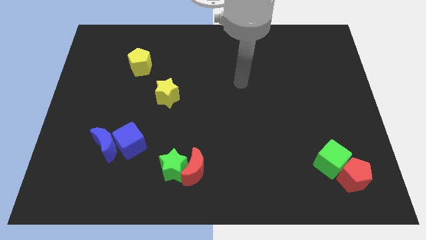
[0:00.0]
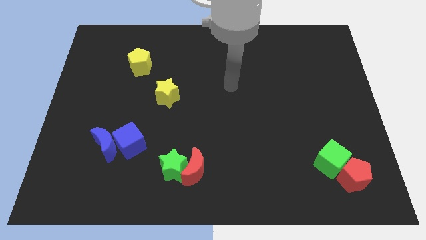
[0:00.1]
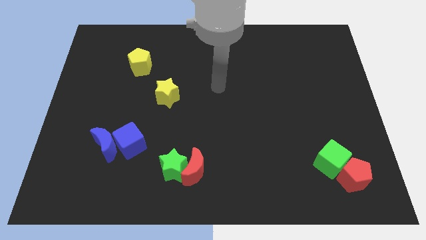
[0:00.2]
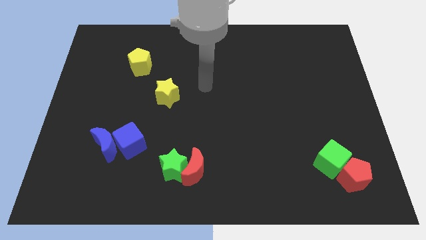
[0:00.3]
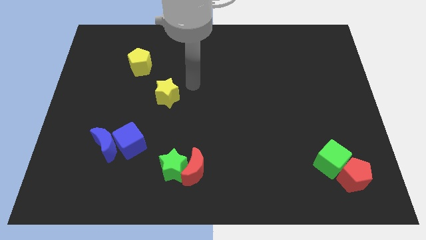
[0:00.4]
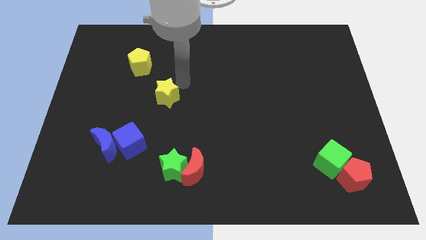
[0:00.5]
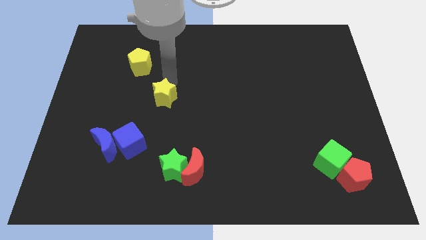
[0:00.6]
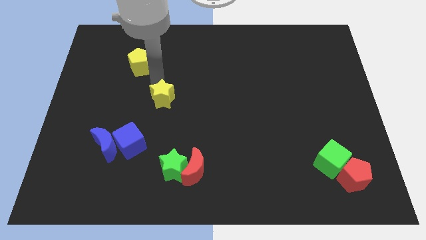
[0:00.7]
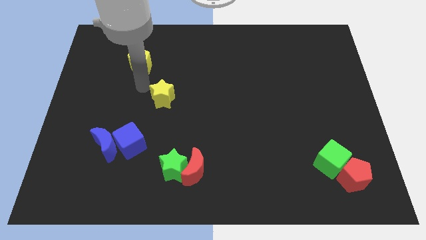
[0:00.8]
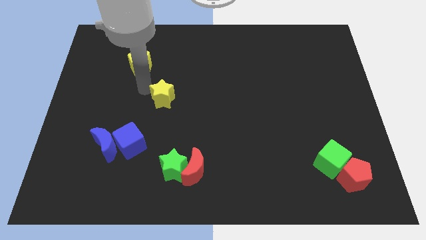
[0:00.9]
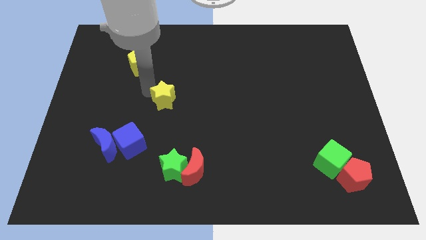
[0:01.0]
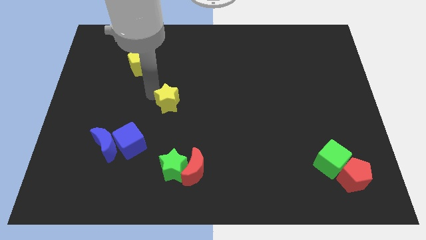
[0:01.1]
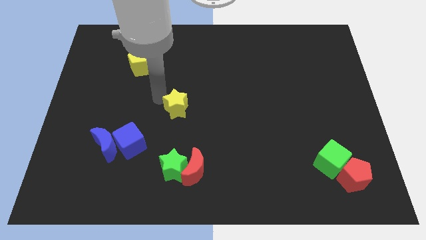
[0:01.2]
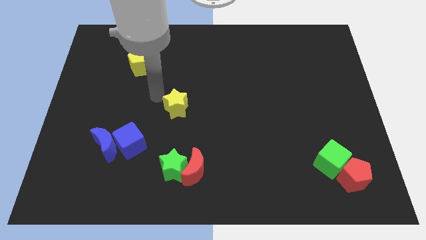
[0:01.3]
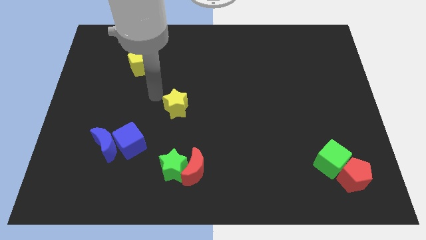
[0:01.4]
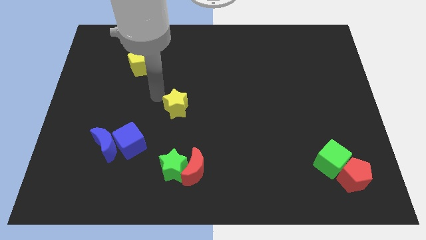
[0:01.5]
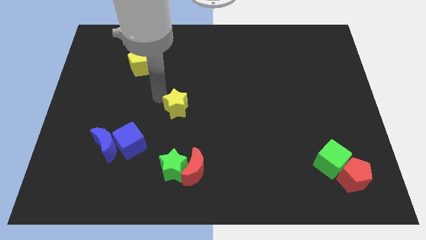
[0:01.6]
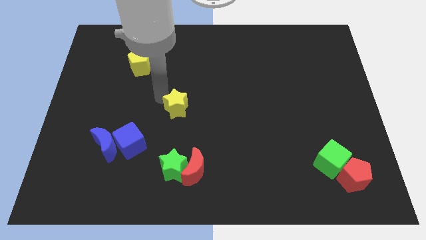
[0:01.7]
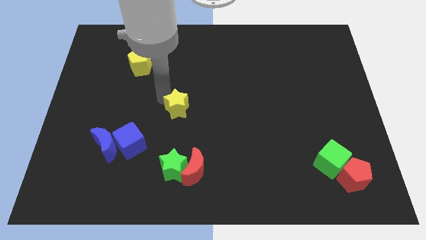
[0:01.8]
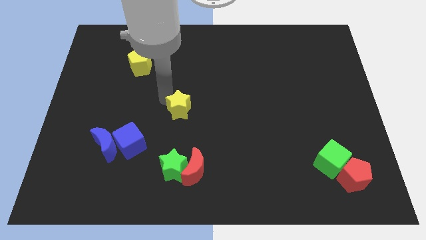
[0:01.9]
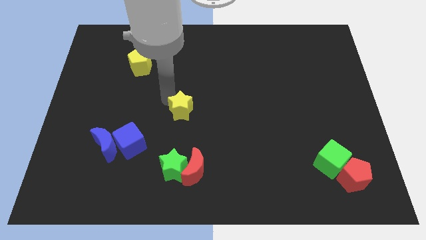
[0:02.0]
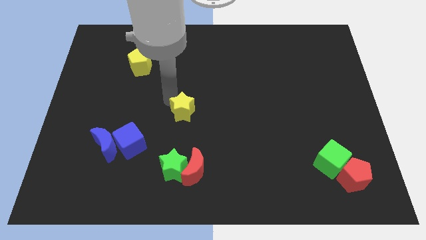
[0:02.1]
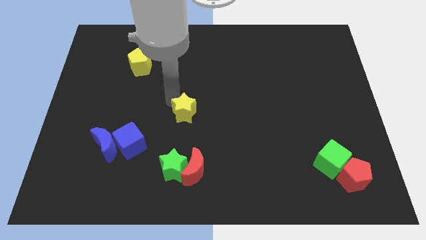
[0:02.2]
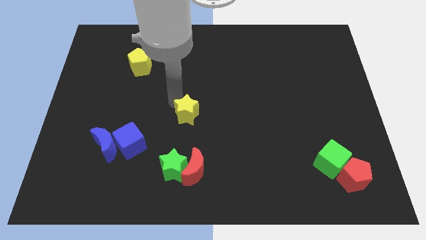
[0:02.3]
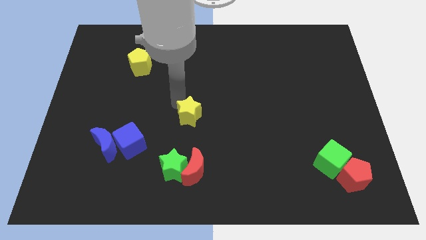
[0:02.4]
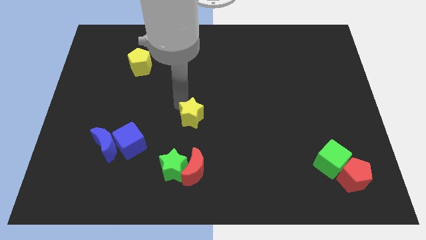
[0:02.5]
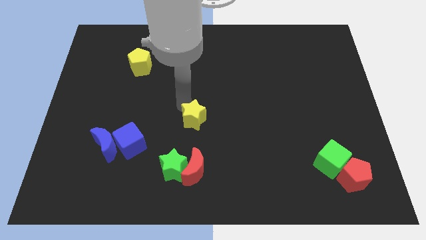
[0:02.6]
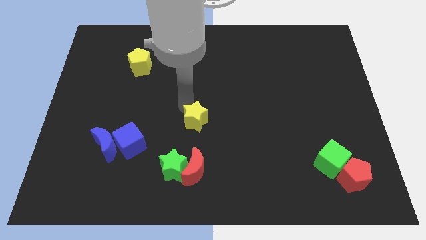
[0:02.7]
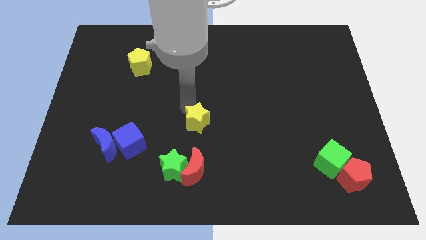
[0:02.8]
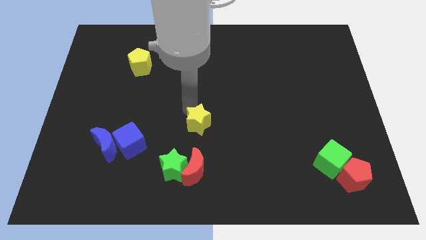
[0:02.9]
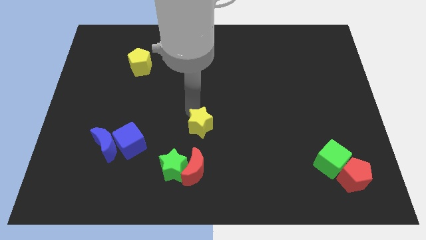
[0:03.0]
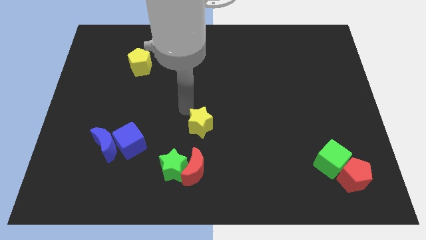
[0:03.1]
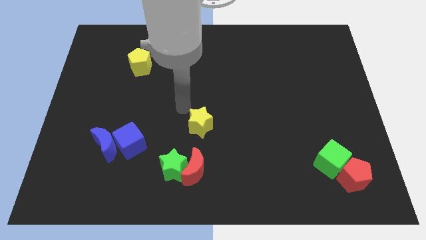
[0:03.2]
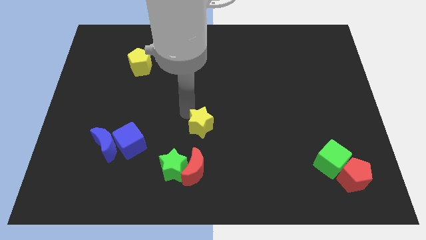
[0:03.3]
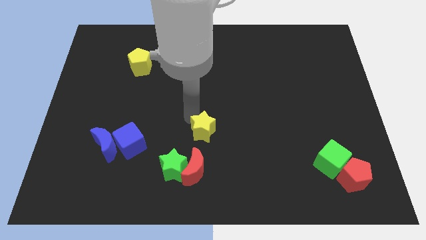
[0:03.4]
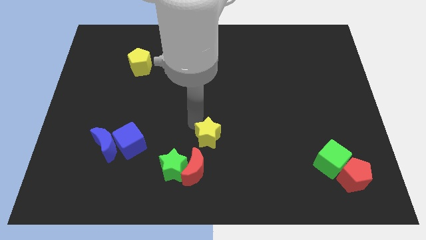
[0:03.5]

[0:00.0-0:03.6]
slide the yellow star to the top right of the red moon

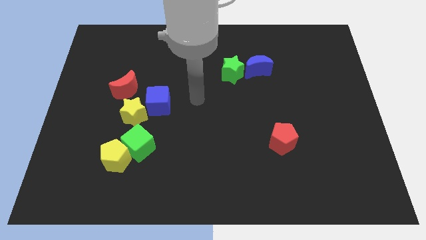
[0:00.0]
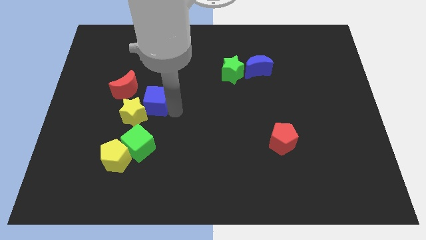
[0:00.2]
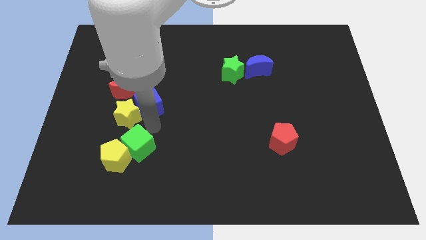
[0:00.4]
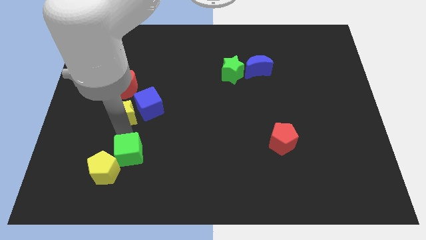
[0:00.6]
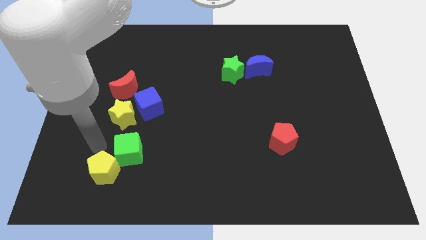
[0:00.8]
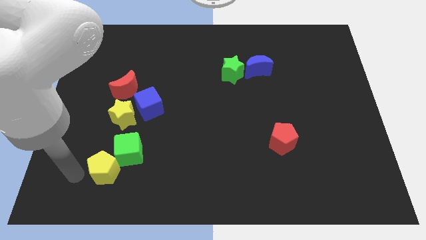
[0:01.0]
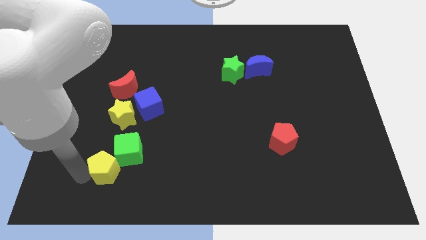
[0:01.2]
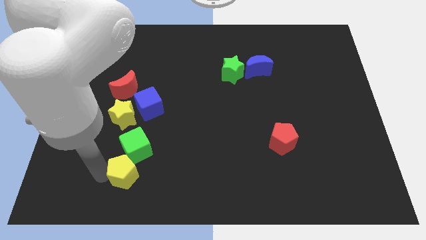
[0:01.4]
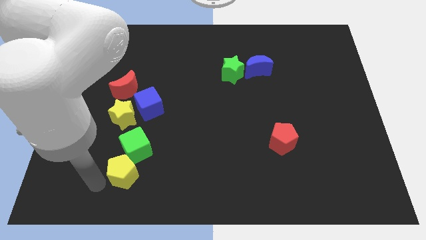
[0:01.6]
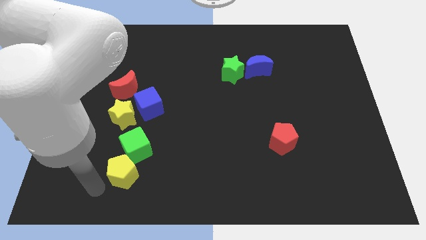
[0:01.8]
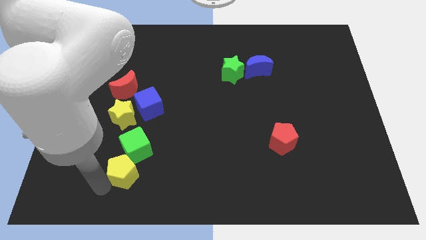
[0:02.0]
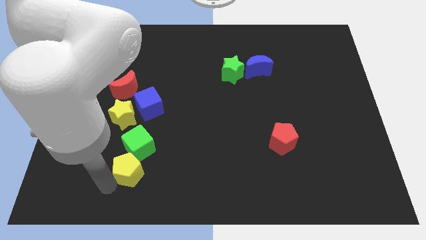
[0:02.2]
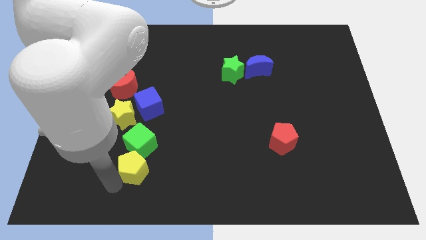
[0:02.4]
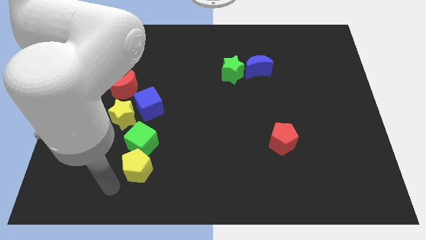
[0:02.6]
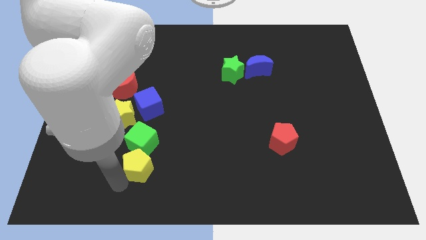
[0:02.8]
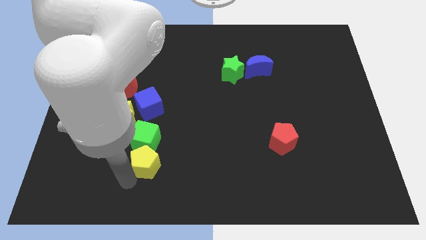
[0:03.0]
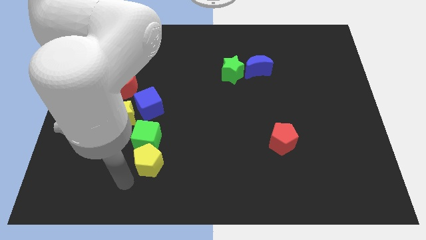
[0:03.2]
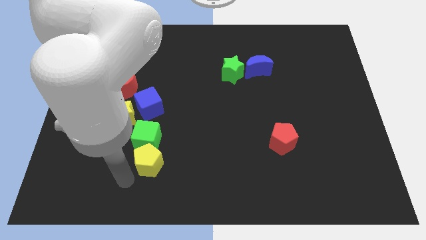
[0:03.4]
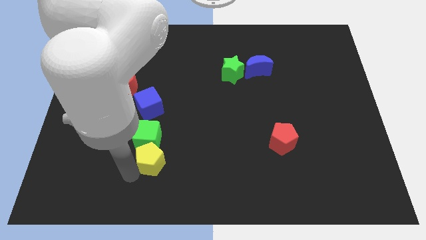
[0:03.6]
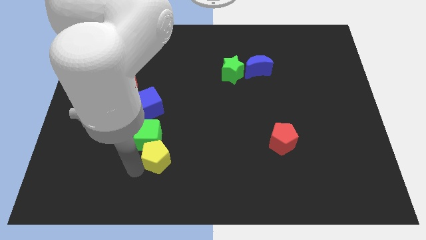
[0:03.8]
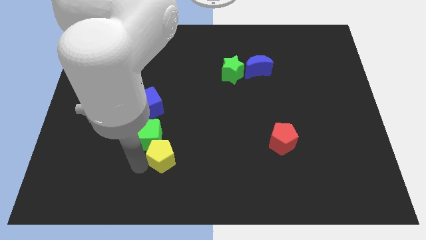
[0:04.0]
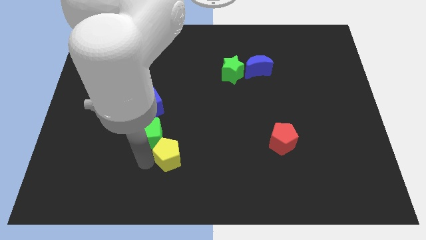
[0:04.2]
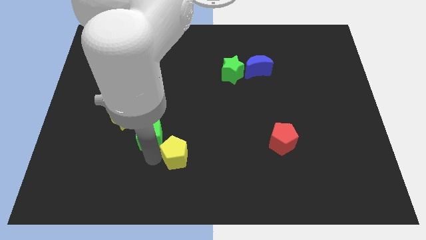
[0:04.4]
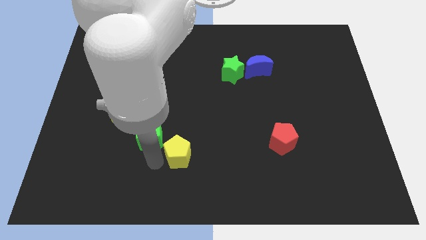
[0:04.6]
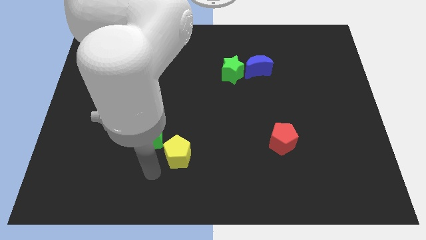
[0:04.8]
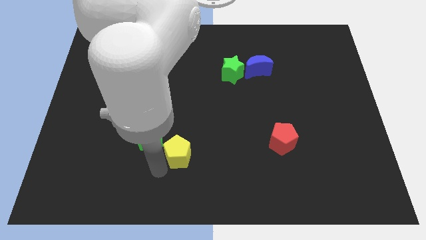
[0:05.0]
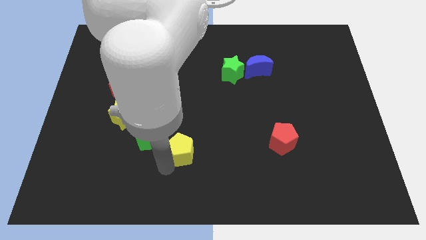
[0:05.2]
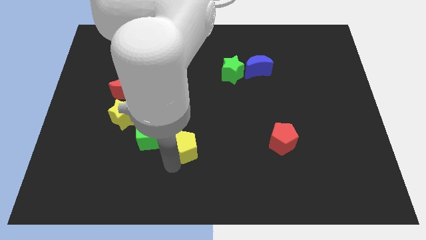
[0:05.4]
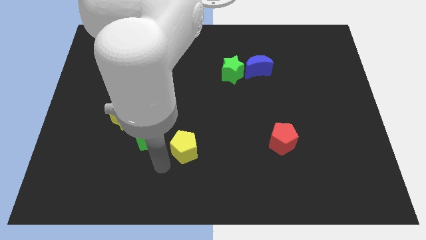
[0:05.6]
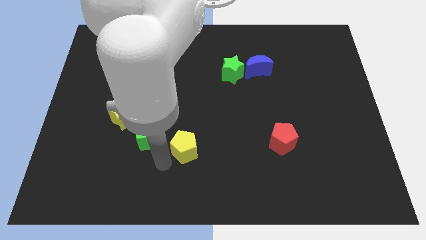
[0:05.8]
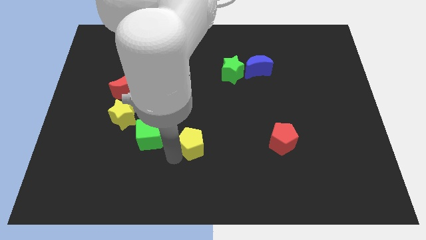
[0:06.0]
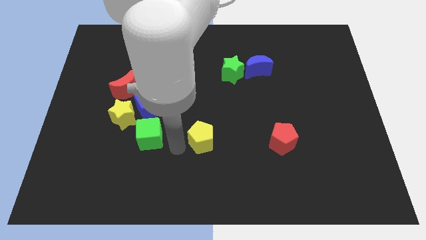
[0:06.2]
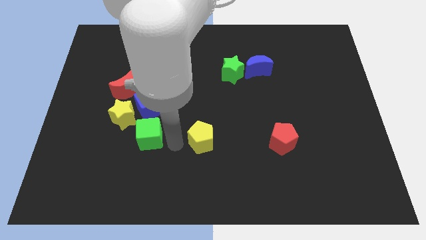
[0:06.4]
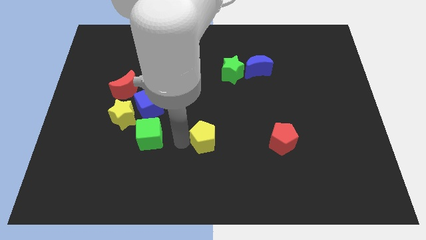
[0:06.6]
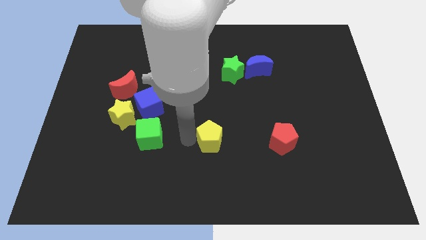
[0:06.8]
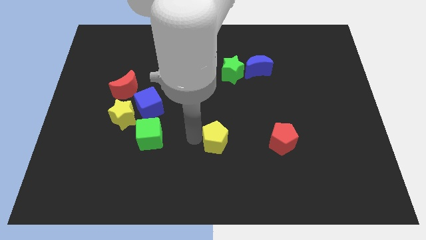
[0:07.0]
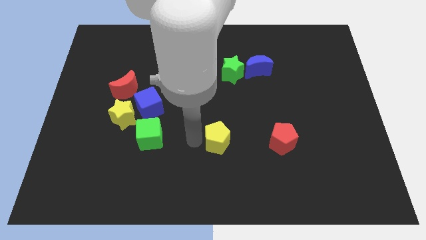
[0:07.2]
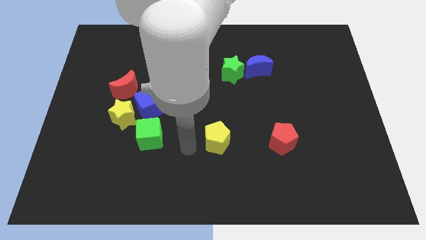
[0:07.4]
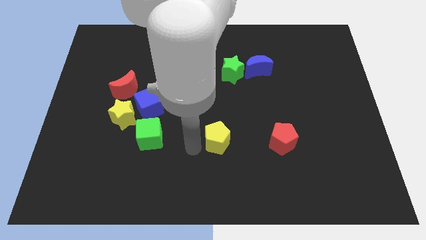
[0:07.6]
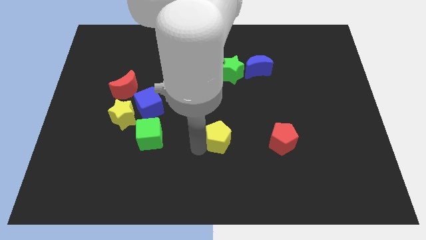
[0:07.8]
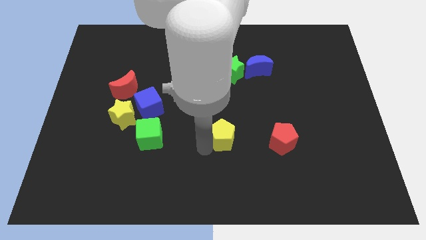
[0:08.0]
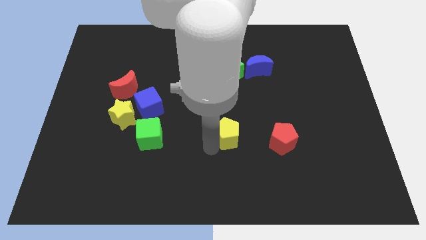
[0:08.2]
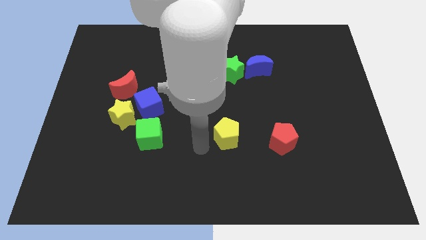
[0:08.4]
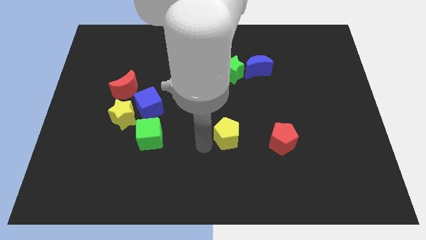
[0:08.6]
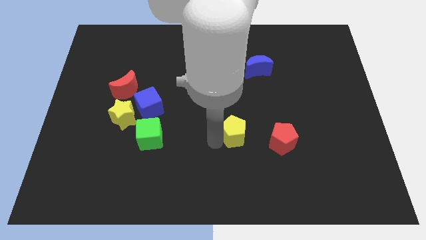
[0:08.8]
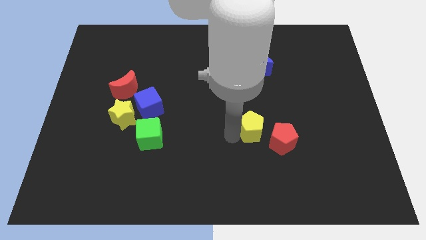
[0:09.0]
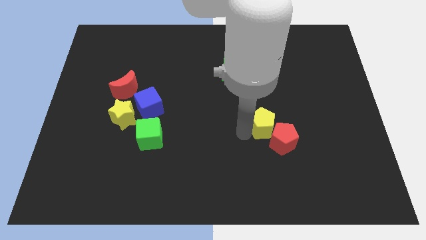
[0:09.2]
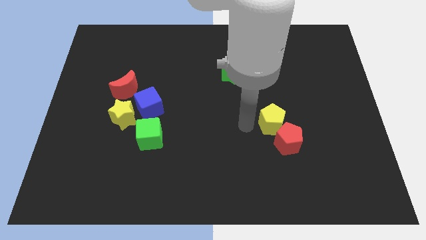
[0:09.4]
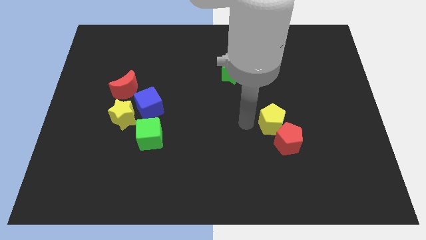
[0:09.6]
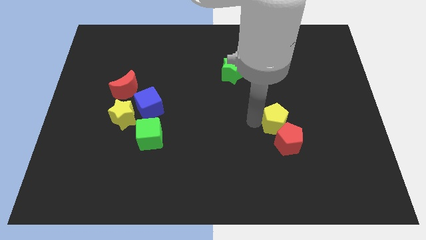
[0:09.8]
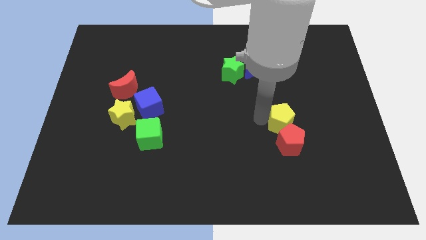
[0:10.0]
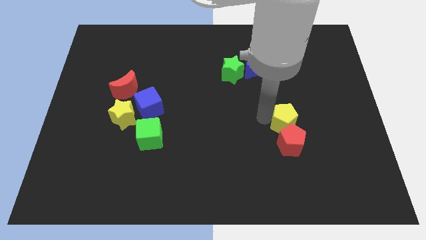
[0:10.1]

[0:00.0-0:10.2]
slide the yellow pentagon to the top right of the red pentagon
